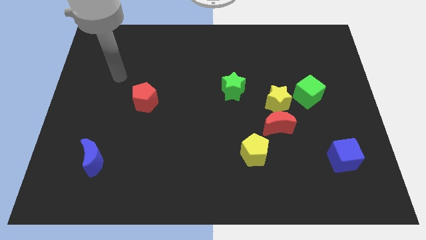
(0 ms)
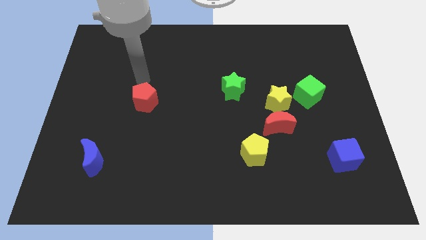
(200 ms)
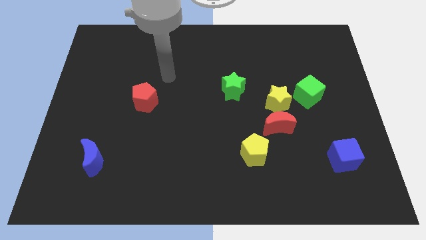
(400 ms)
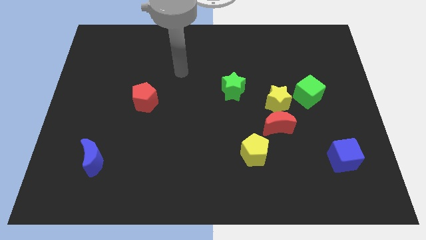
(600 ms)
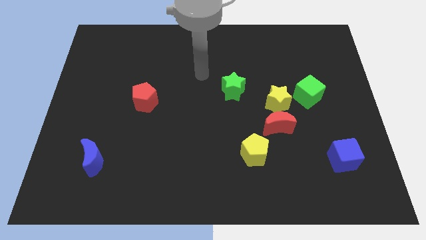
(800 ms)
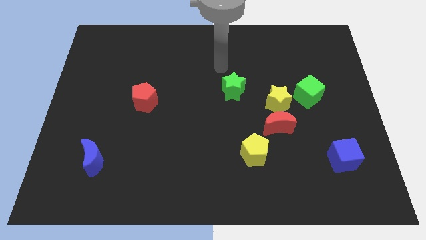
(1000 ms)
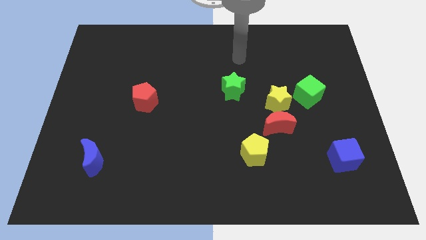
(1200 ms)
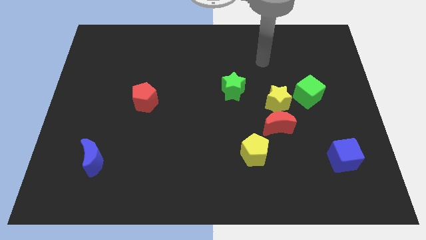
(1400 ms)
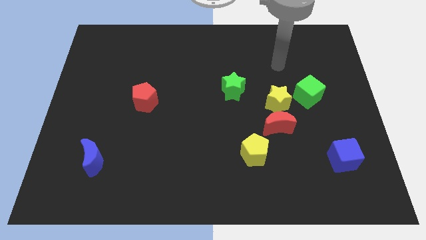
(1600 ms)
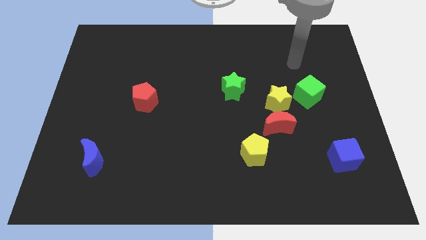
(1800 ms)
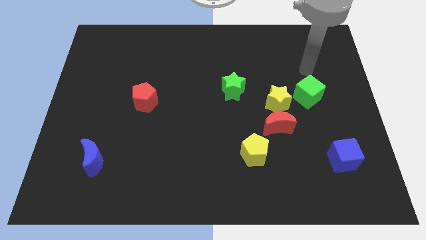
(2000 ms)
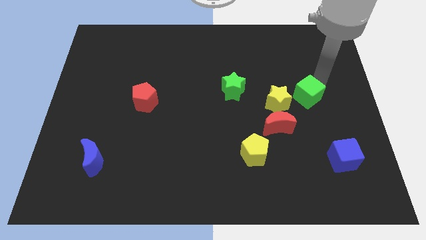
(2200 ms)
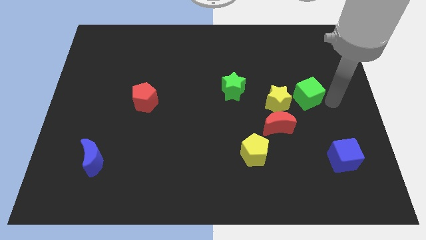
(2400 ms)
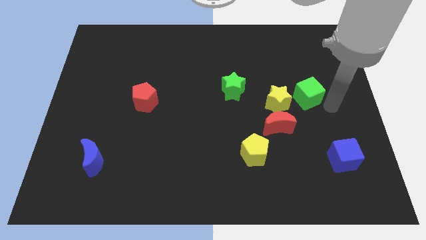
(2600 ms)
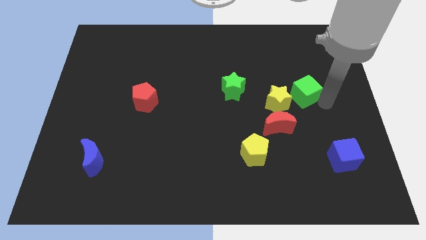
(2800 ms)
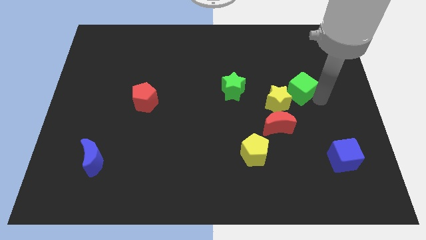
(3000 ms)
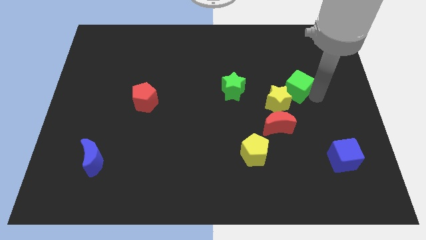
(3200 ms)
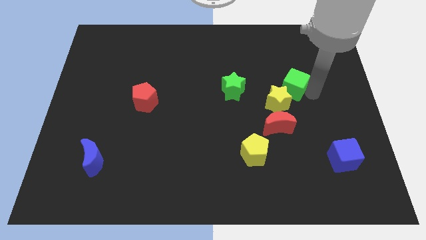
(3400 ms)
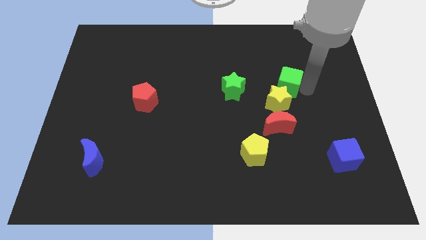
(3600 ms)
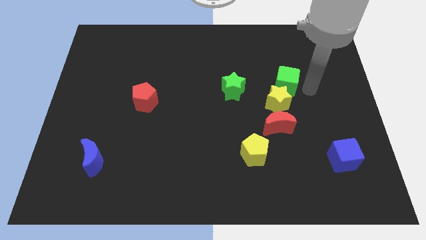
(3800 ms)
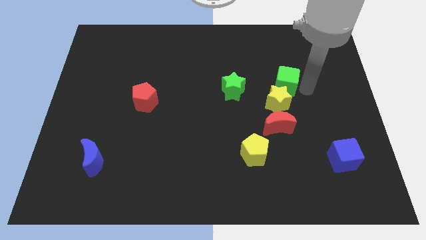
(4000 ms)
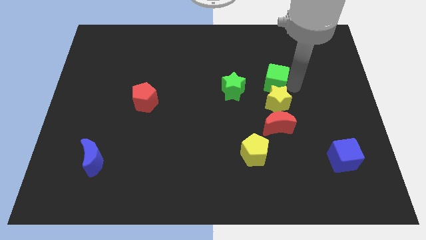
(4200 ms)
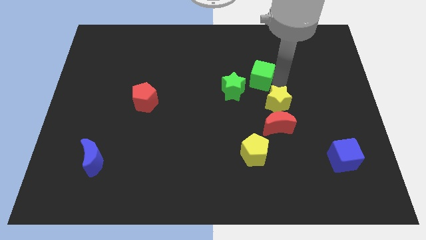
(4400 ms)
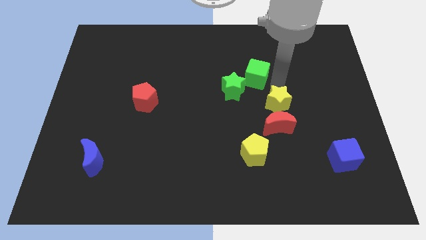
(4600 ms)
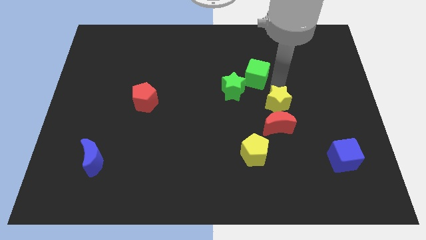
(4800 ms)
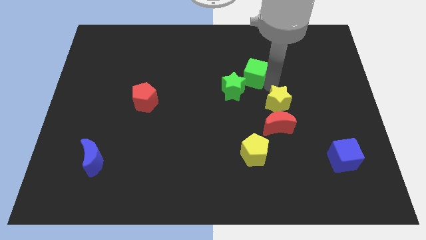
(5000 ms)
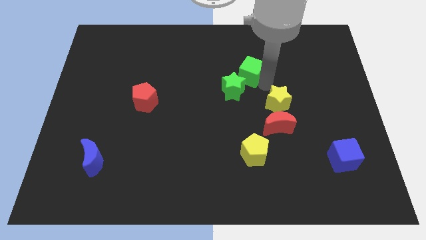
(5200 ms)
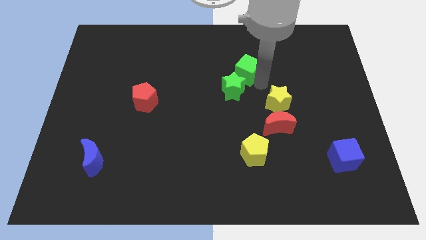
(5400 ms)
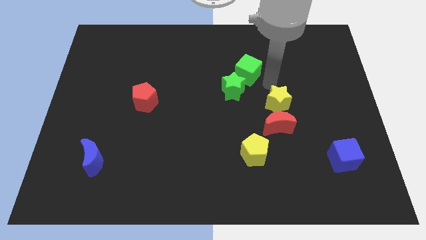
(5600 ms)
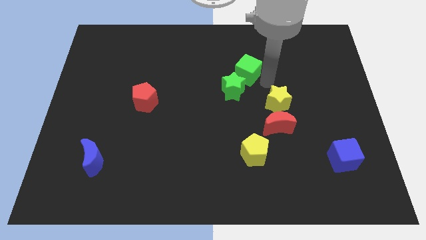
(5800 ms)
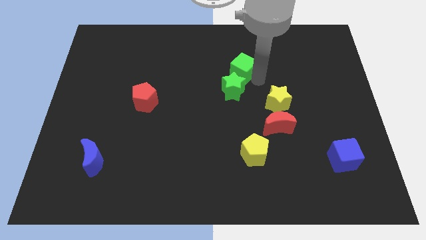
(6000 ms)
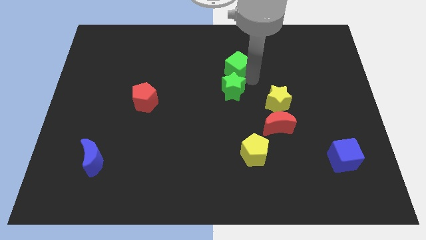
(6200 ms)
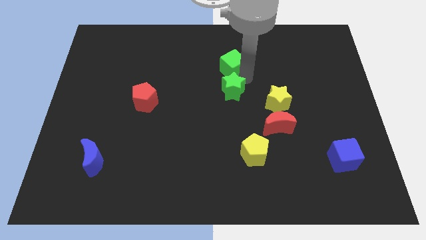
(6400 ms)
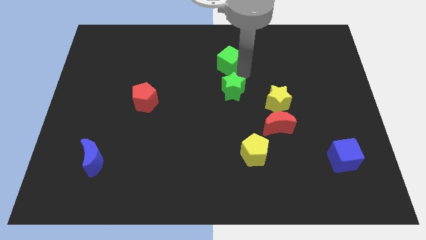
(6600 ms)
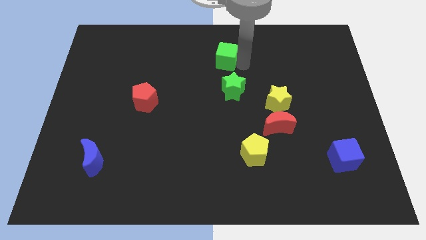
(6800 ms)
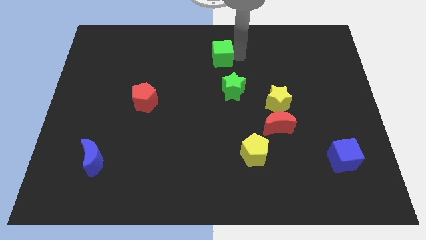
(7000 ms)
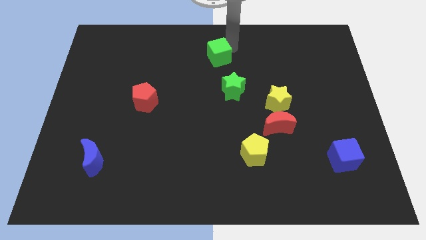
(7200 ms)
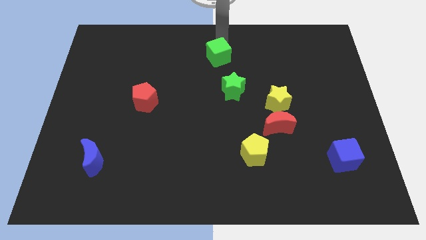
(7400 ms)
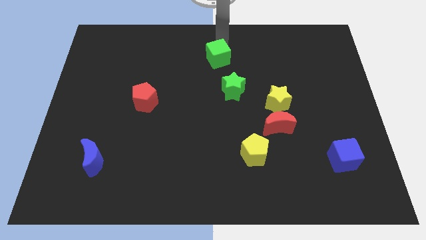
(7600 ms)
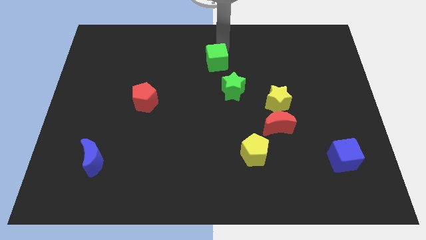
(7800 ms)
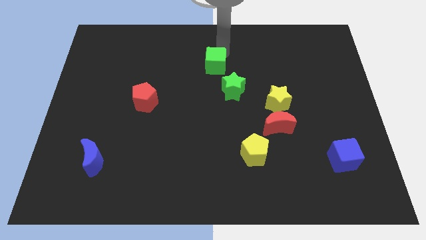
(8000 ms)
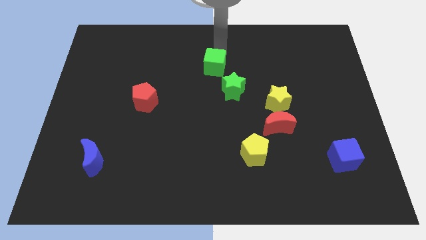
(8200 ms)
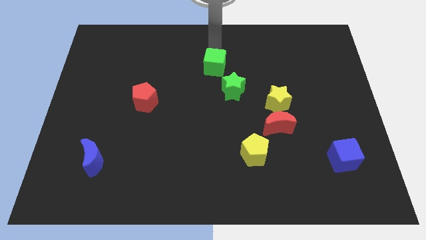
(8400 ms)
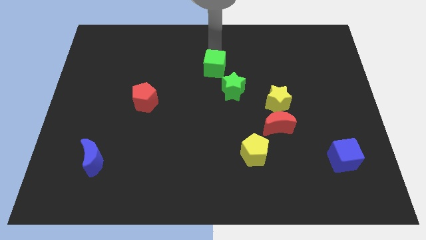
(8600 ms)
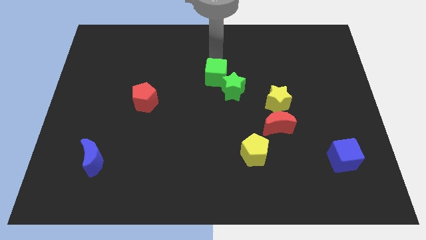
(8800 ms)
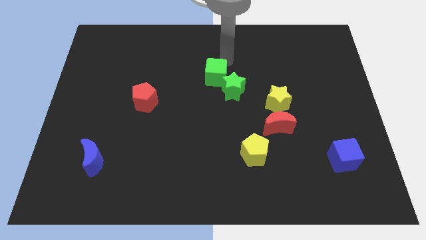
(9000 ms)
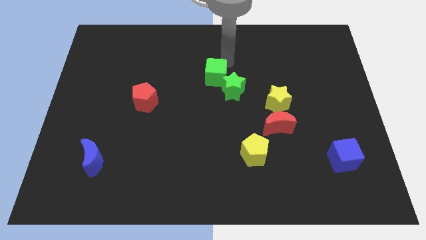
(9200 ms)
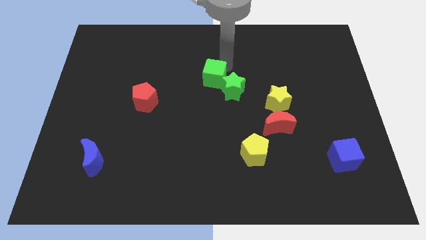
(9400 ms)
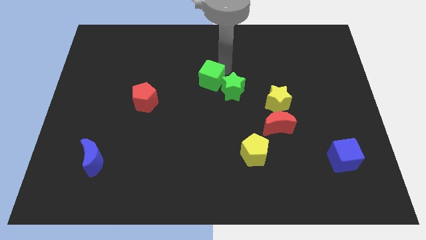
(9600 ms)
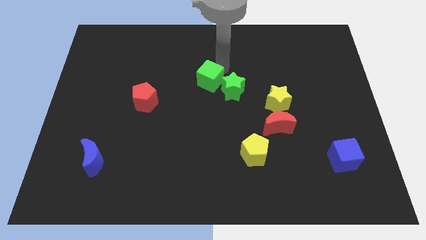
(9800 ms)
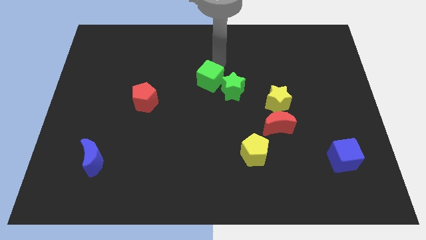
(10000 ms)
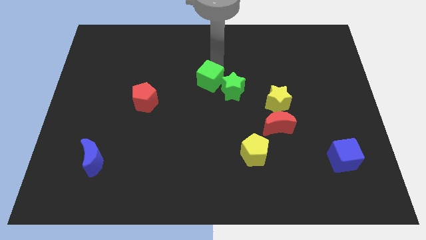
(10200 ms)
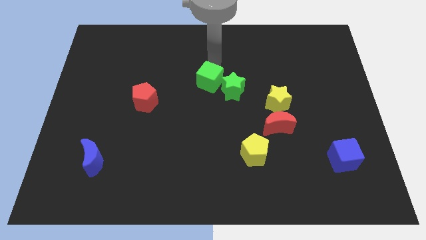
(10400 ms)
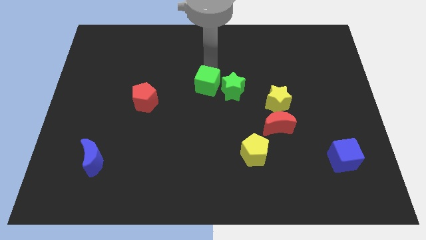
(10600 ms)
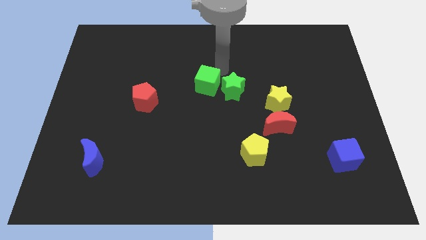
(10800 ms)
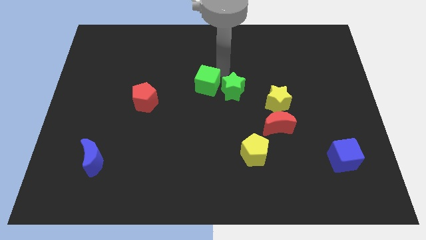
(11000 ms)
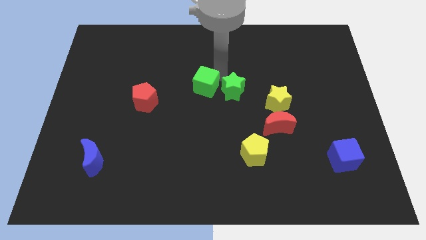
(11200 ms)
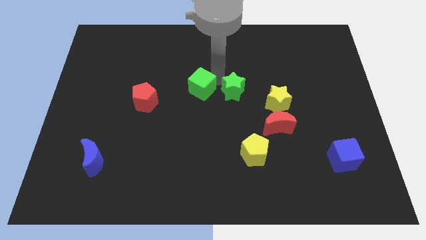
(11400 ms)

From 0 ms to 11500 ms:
move the green cube just right of the red pentagon

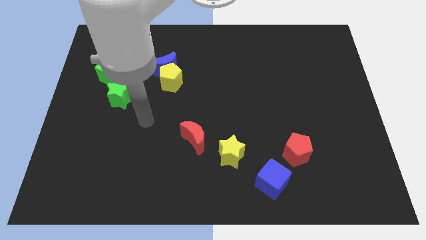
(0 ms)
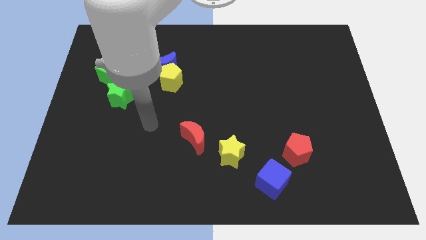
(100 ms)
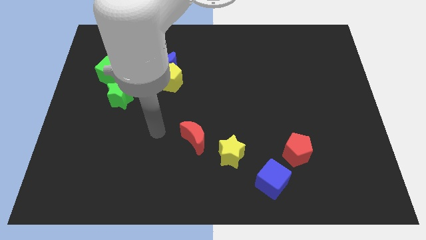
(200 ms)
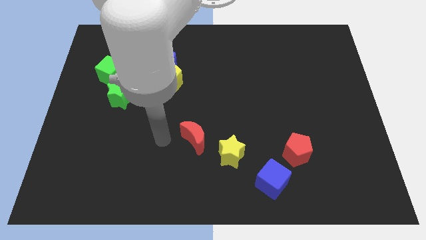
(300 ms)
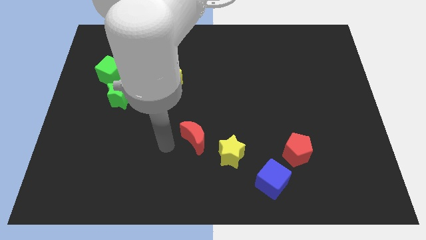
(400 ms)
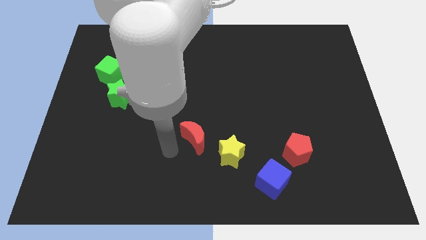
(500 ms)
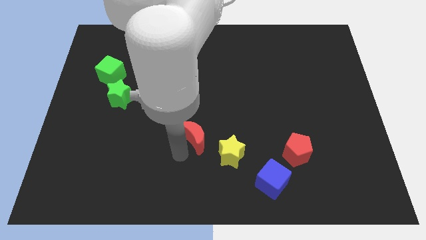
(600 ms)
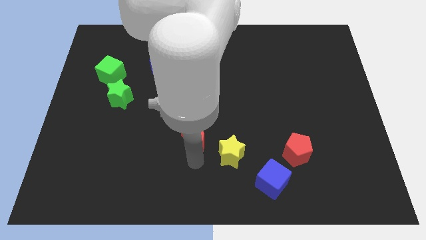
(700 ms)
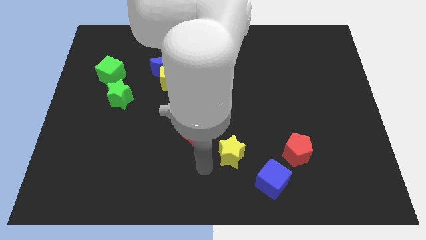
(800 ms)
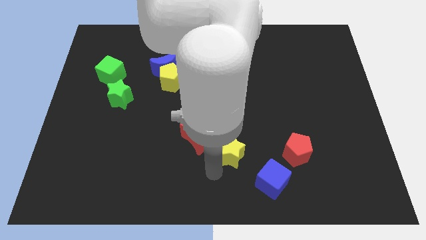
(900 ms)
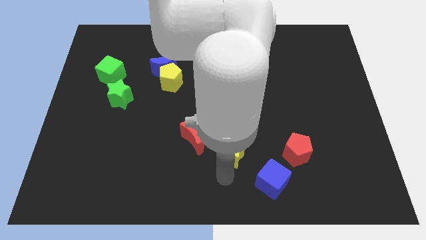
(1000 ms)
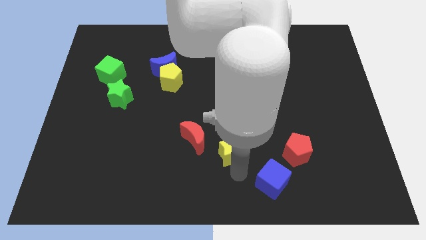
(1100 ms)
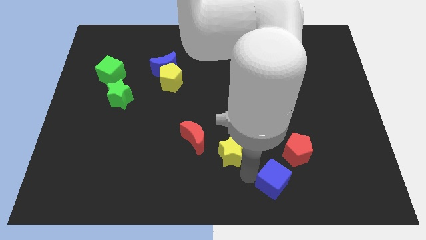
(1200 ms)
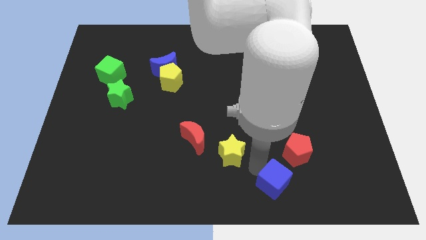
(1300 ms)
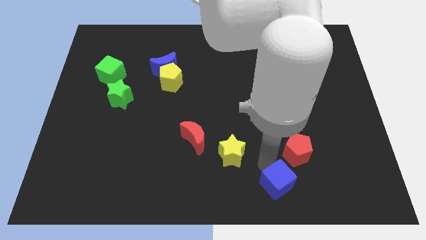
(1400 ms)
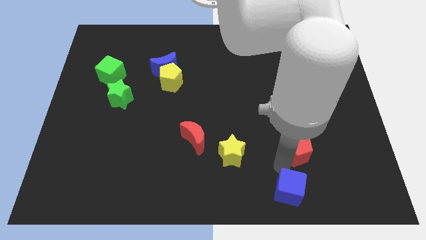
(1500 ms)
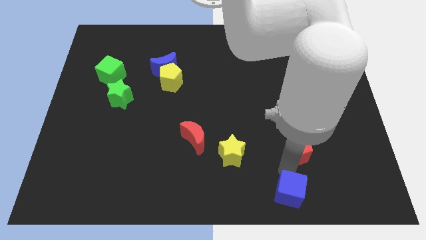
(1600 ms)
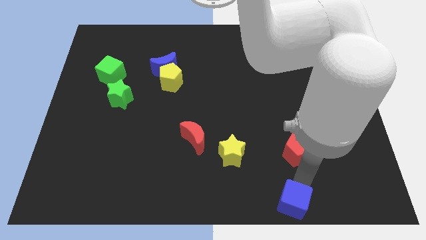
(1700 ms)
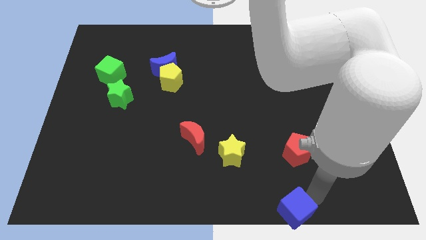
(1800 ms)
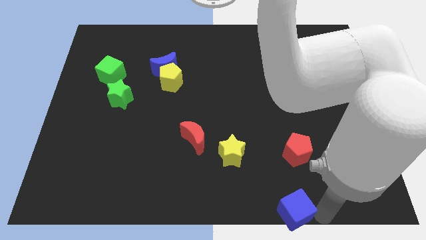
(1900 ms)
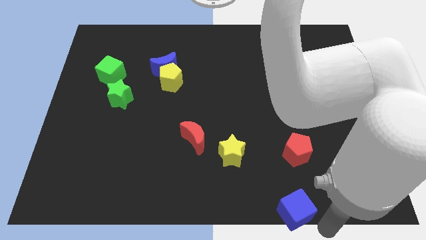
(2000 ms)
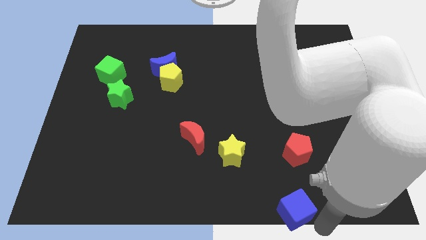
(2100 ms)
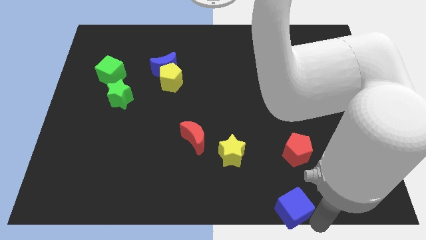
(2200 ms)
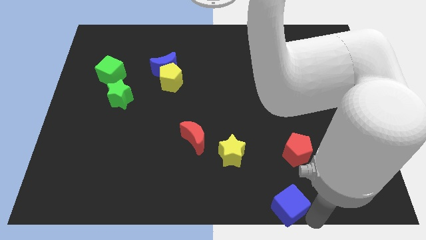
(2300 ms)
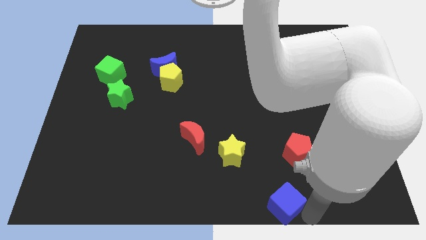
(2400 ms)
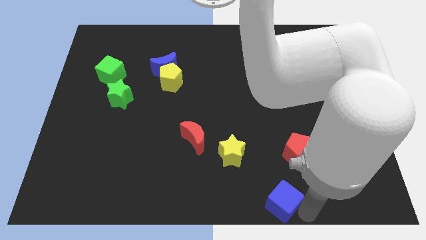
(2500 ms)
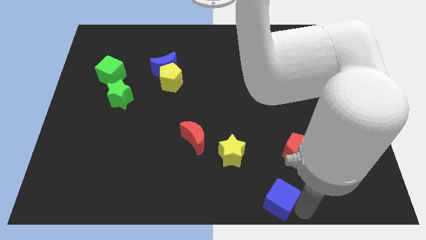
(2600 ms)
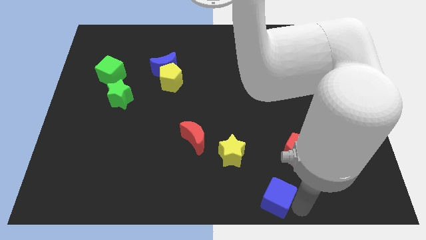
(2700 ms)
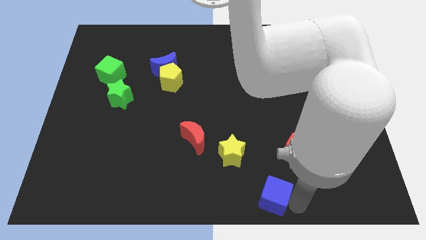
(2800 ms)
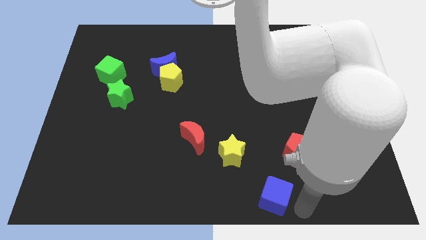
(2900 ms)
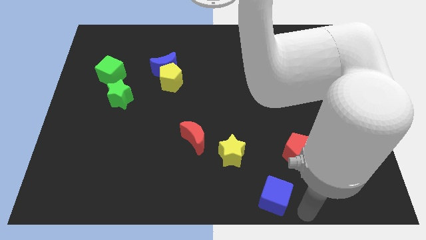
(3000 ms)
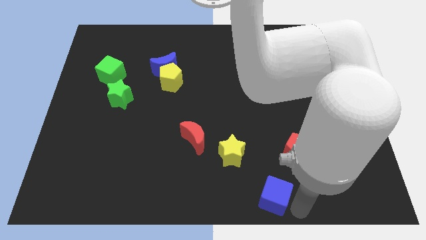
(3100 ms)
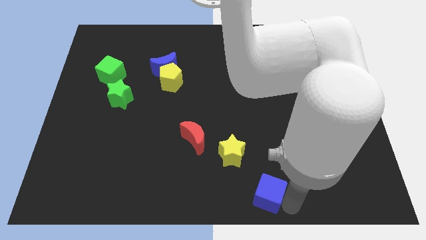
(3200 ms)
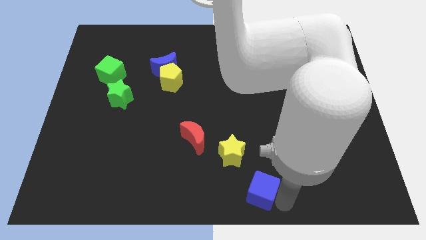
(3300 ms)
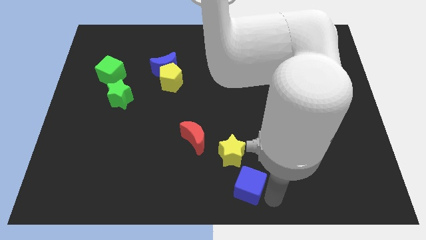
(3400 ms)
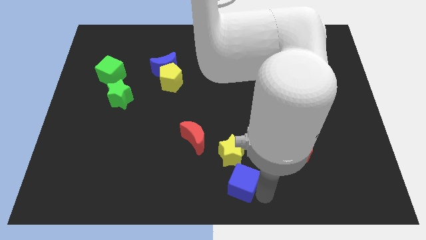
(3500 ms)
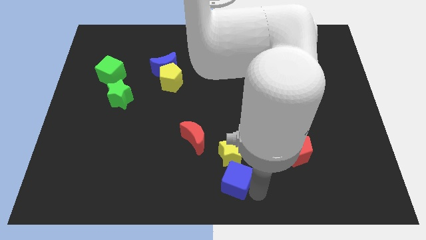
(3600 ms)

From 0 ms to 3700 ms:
slide the blue cube to the bottom left of the yellow star
